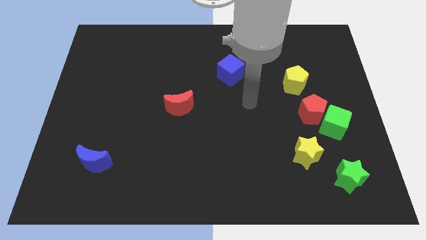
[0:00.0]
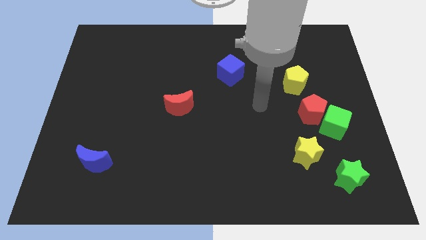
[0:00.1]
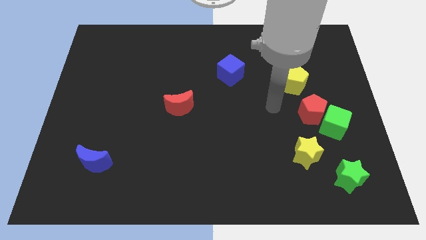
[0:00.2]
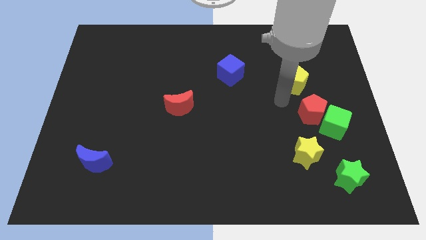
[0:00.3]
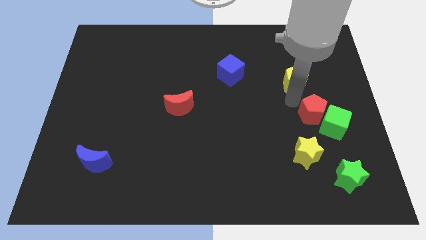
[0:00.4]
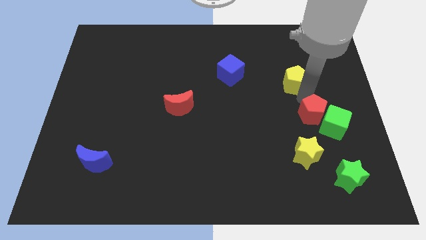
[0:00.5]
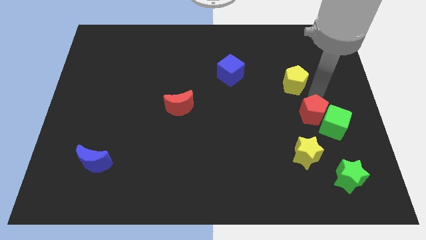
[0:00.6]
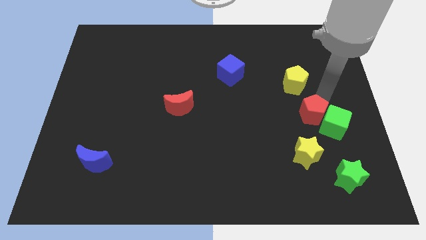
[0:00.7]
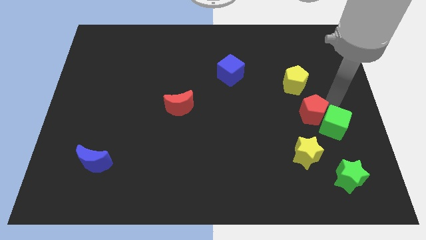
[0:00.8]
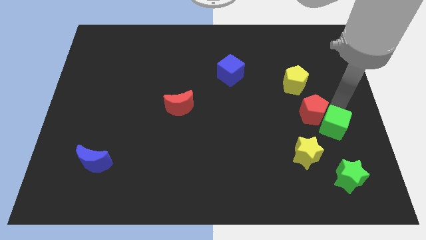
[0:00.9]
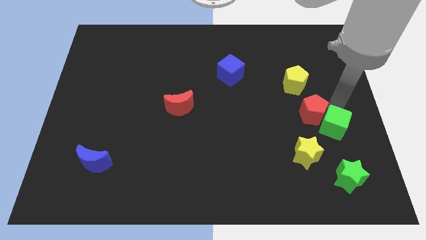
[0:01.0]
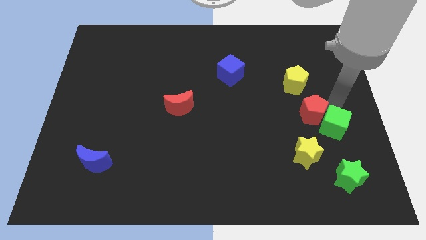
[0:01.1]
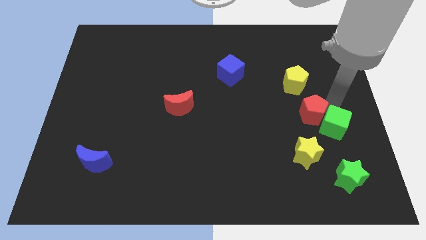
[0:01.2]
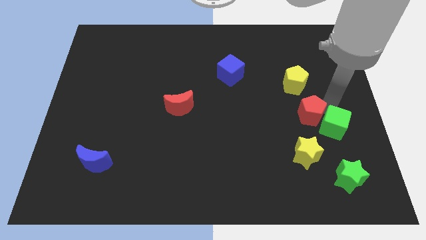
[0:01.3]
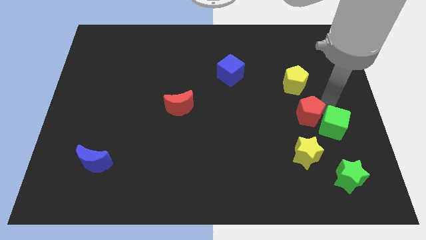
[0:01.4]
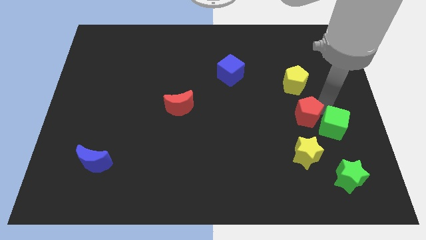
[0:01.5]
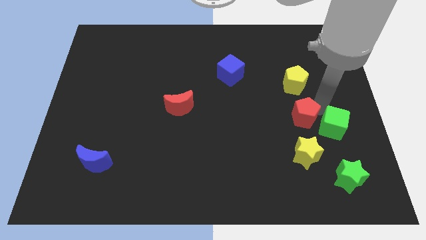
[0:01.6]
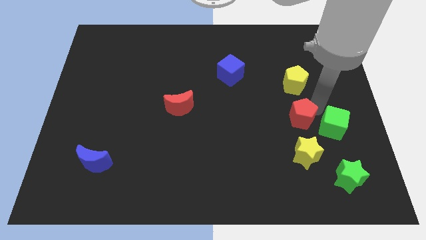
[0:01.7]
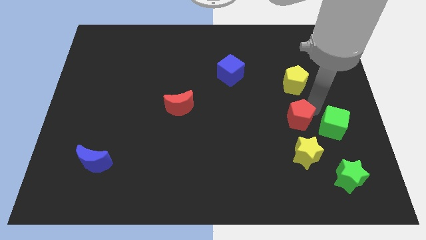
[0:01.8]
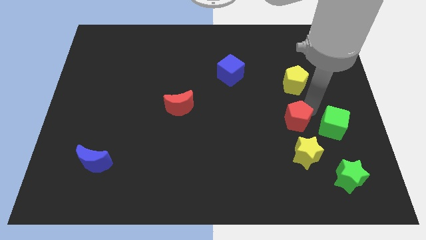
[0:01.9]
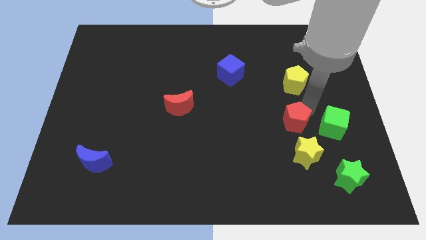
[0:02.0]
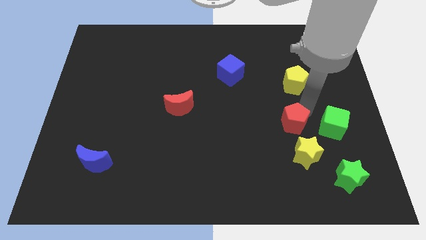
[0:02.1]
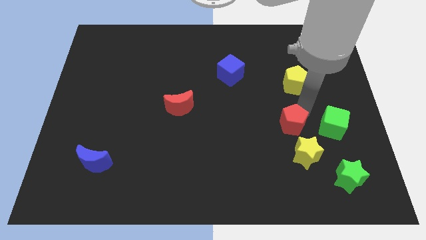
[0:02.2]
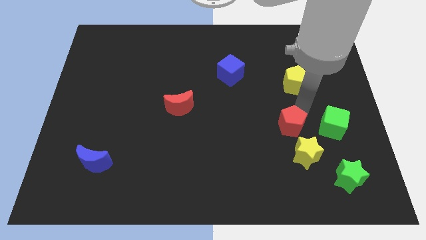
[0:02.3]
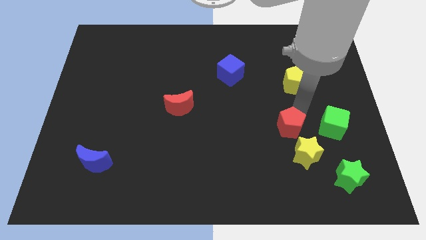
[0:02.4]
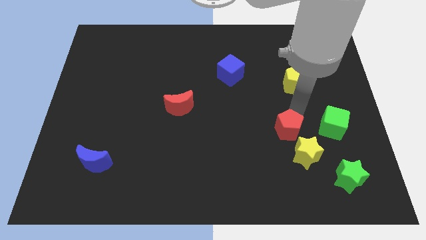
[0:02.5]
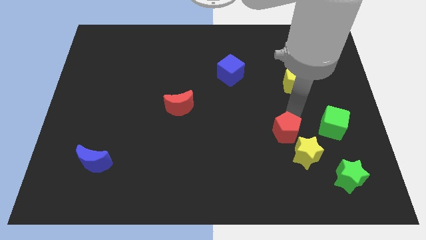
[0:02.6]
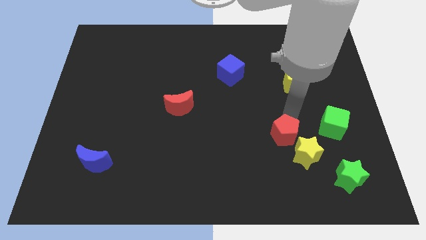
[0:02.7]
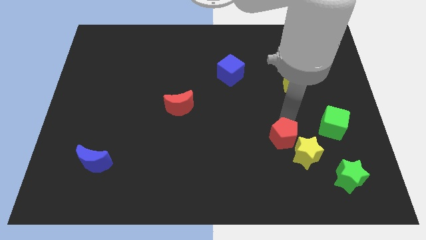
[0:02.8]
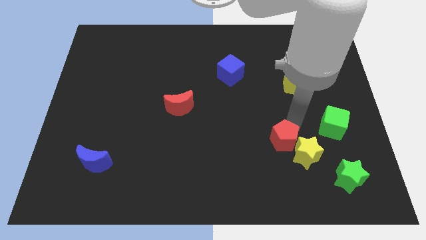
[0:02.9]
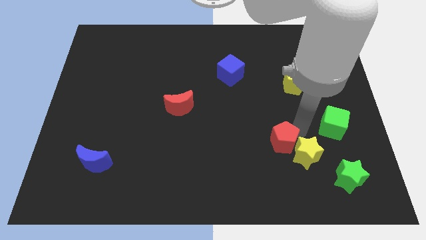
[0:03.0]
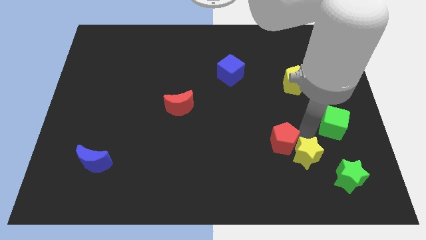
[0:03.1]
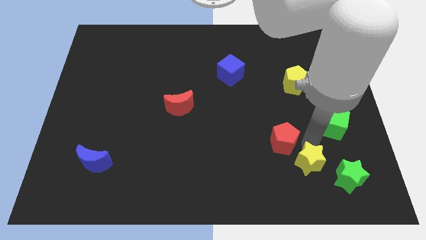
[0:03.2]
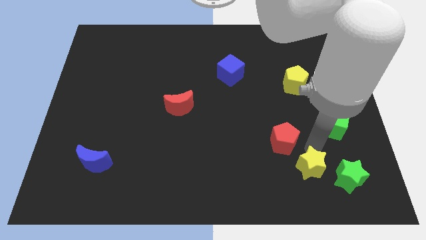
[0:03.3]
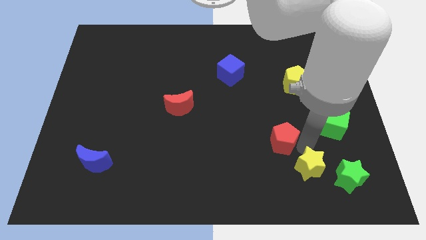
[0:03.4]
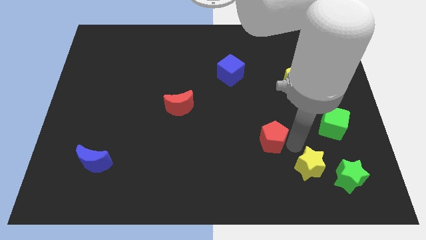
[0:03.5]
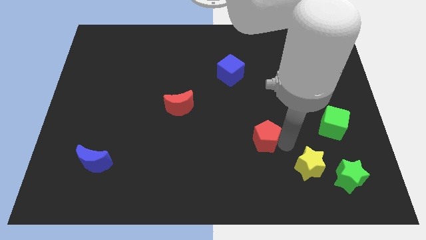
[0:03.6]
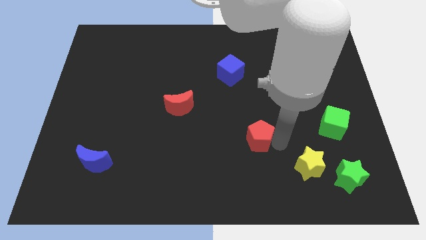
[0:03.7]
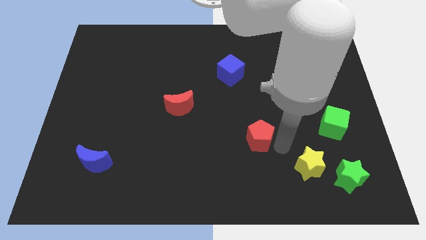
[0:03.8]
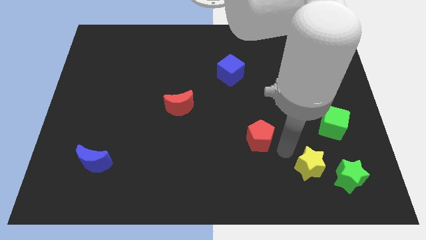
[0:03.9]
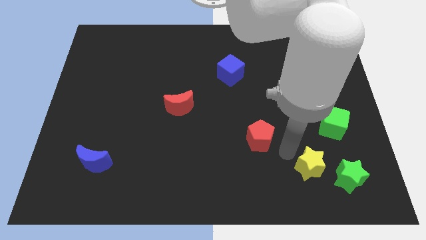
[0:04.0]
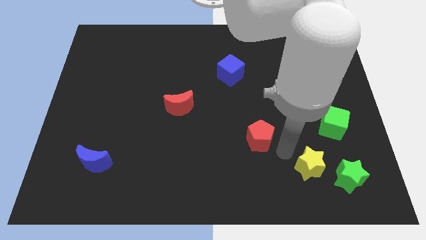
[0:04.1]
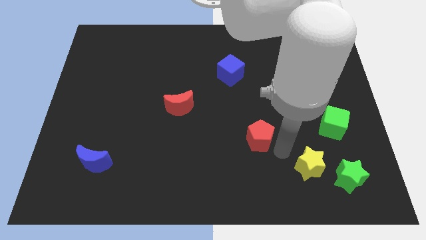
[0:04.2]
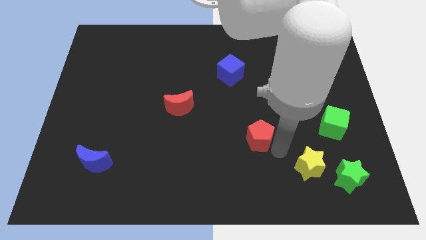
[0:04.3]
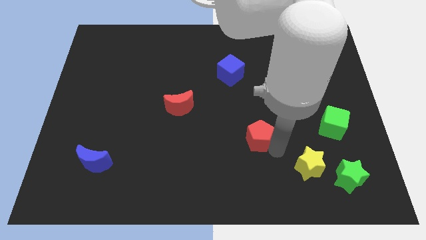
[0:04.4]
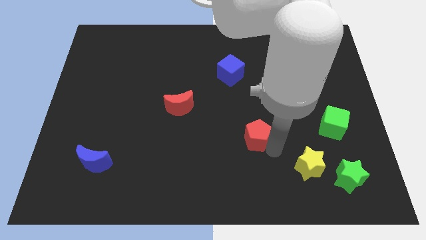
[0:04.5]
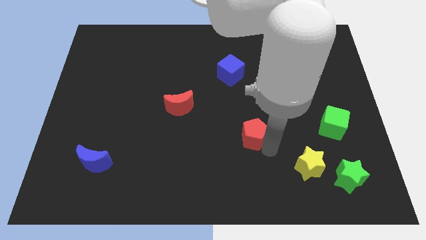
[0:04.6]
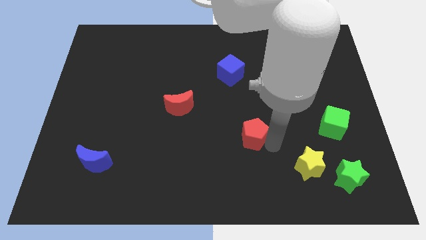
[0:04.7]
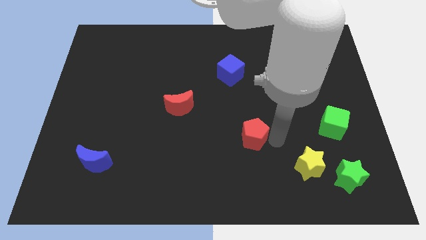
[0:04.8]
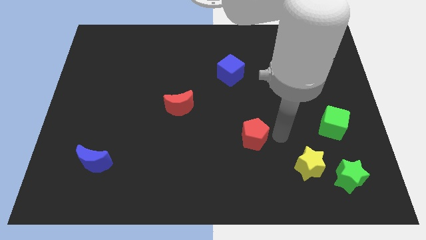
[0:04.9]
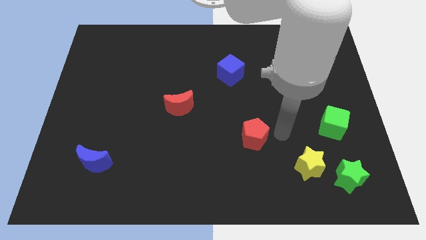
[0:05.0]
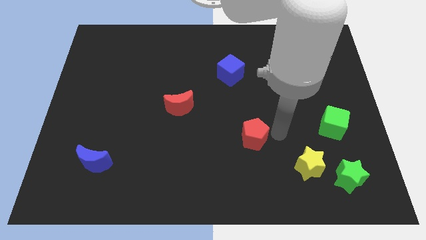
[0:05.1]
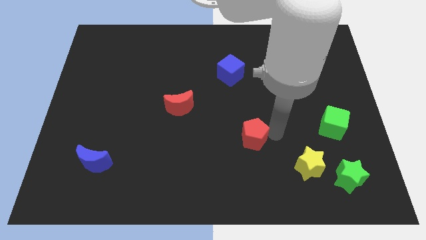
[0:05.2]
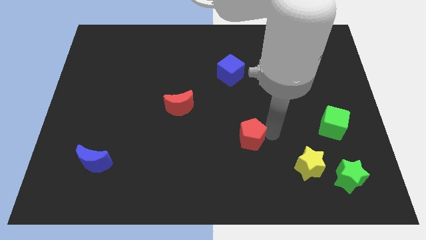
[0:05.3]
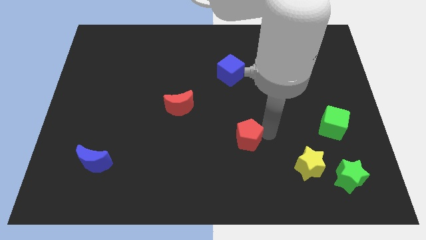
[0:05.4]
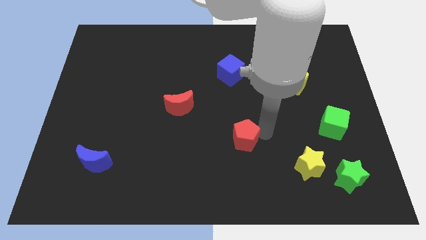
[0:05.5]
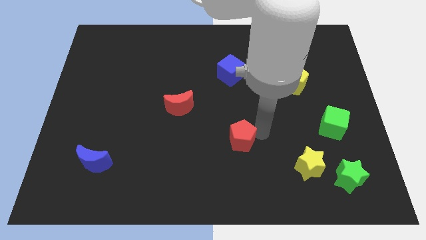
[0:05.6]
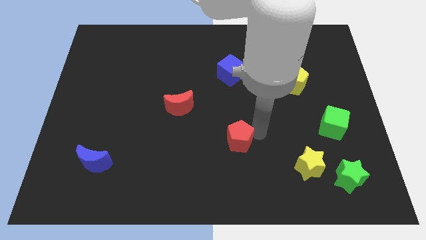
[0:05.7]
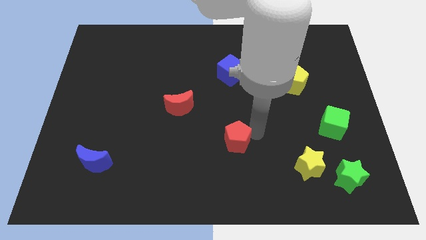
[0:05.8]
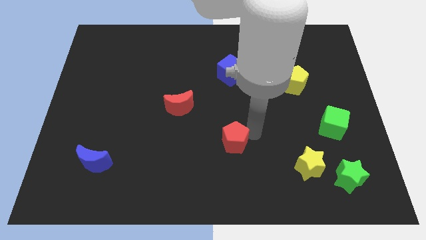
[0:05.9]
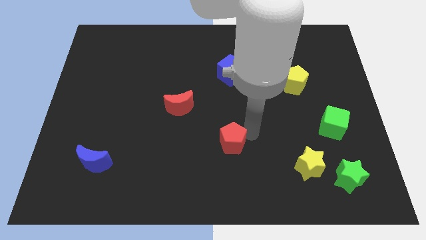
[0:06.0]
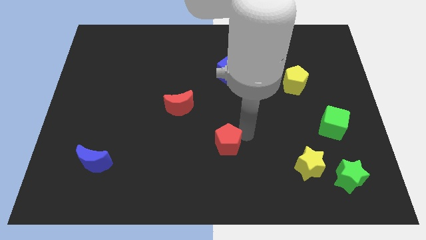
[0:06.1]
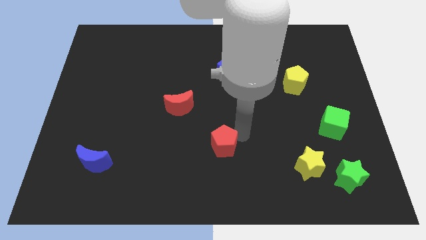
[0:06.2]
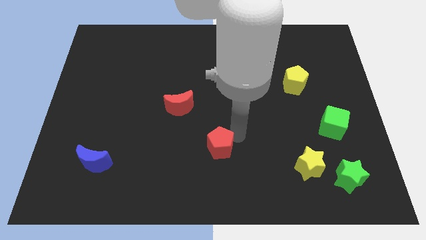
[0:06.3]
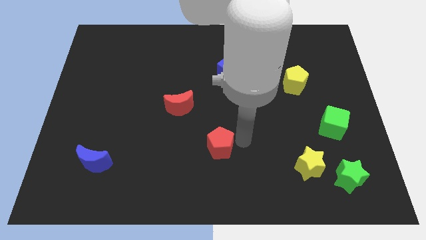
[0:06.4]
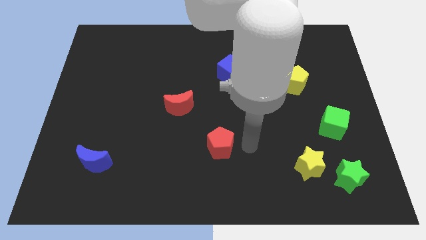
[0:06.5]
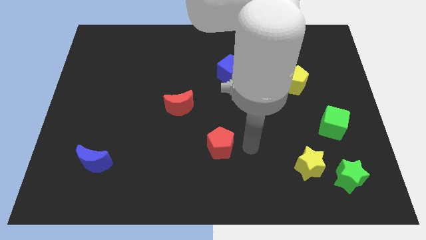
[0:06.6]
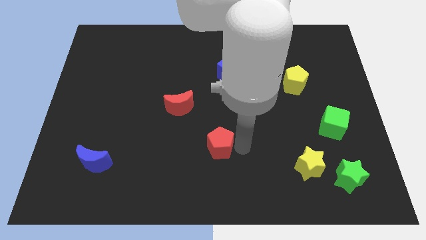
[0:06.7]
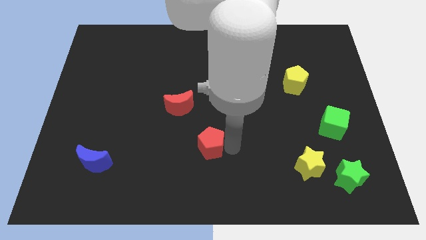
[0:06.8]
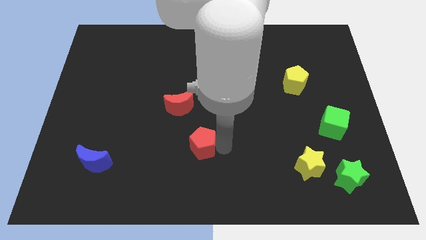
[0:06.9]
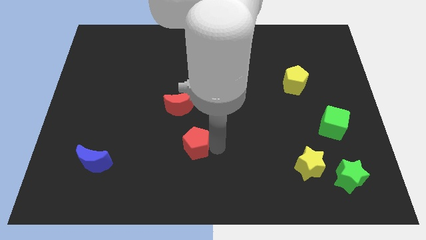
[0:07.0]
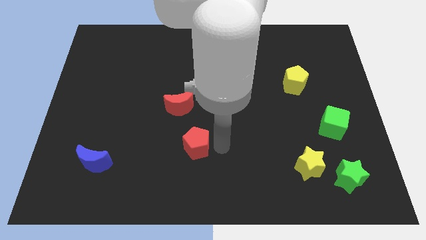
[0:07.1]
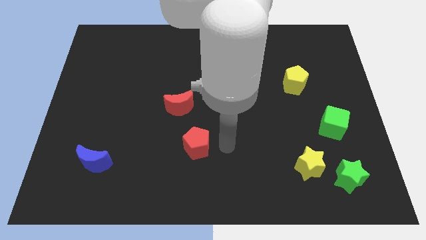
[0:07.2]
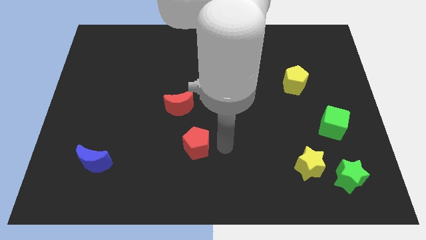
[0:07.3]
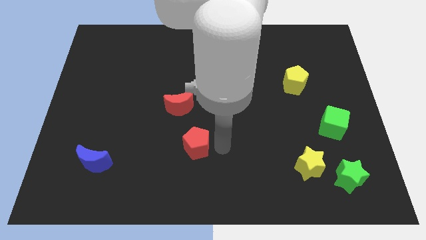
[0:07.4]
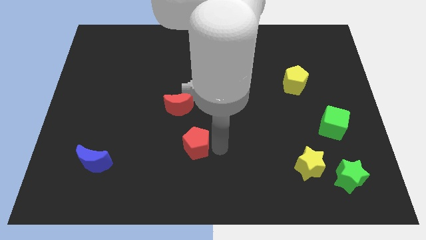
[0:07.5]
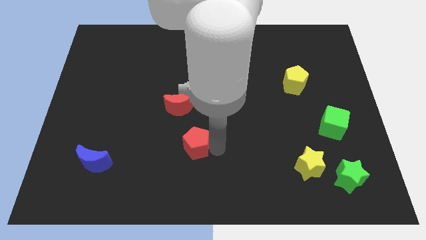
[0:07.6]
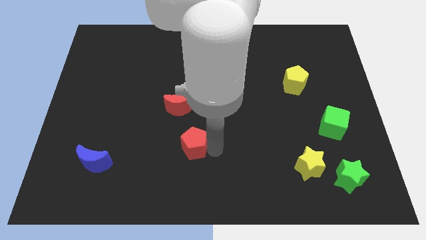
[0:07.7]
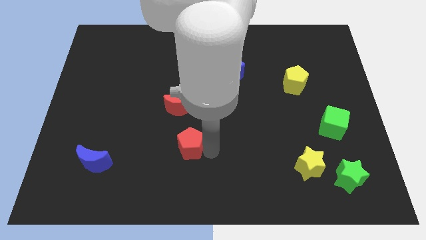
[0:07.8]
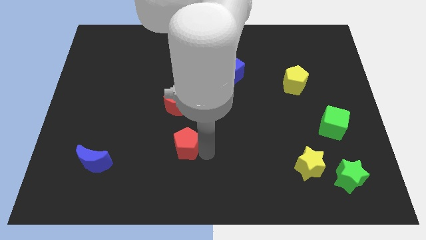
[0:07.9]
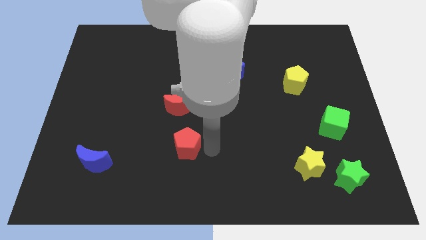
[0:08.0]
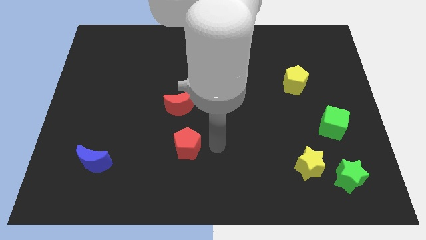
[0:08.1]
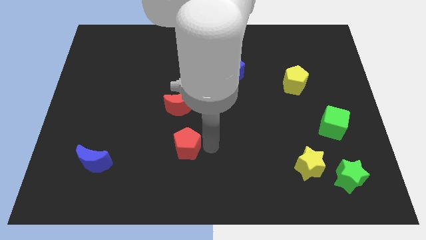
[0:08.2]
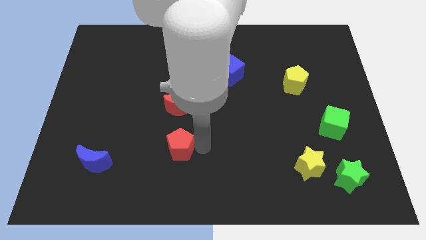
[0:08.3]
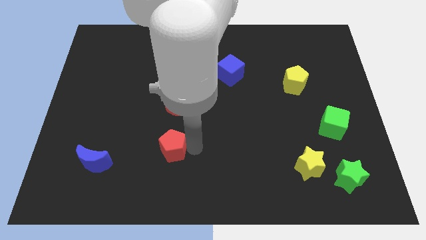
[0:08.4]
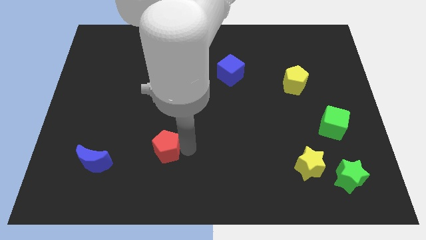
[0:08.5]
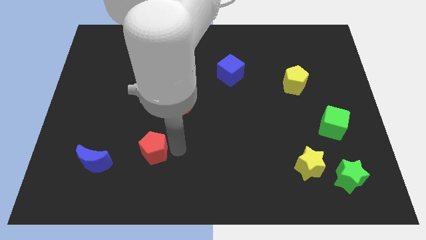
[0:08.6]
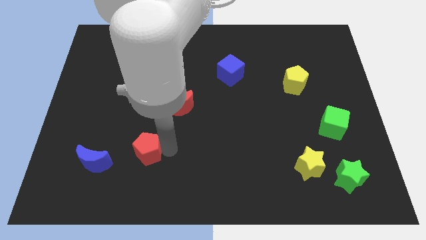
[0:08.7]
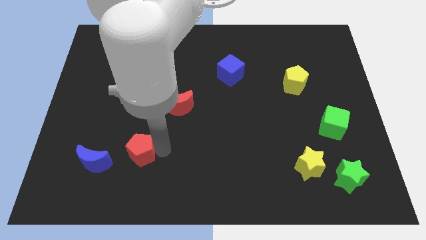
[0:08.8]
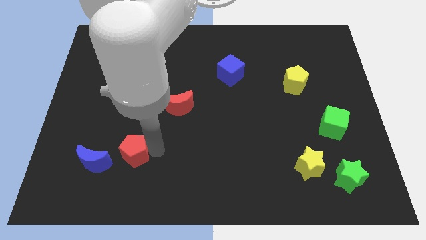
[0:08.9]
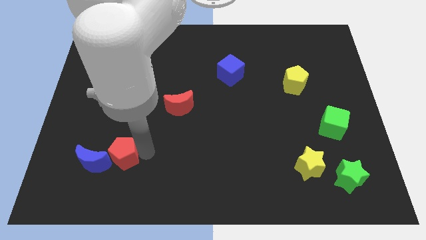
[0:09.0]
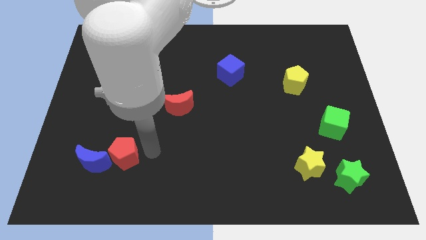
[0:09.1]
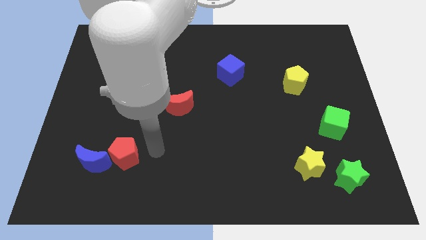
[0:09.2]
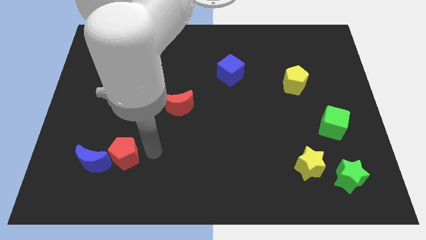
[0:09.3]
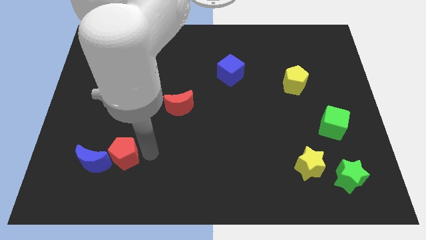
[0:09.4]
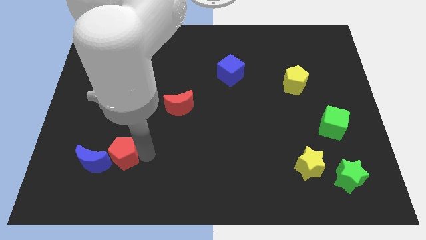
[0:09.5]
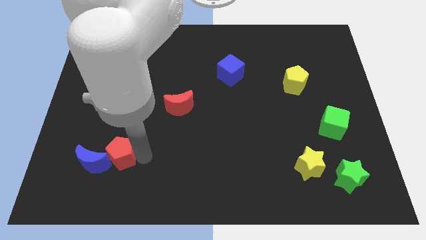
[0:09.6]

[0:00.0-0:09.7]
move the red pentagon next to the blue moon
